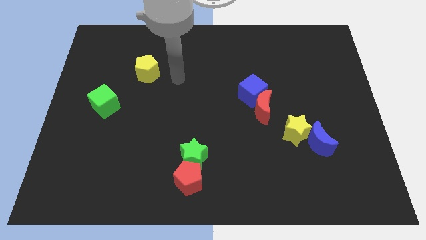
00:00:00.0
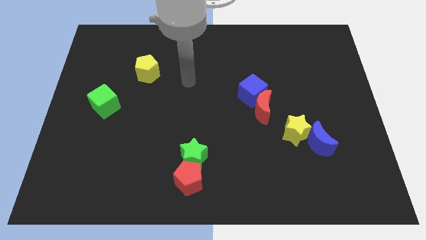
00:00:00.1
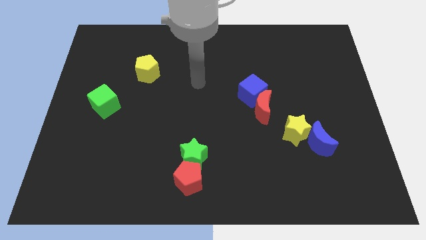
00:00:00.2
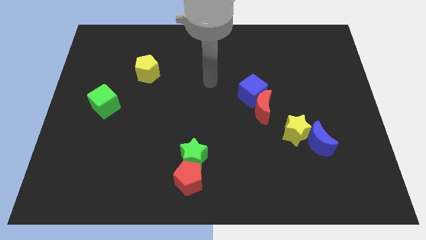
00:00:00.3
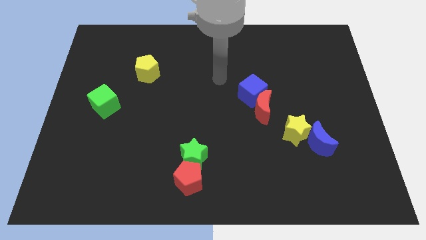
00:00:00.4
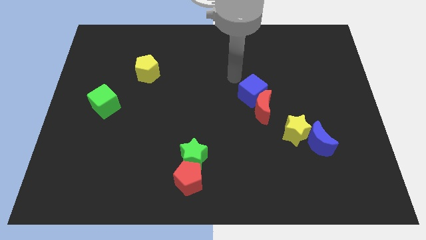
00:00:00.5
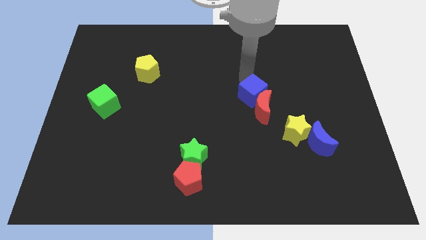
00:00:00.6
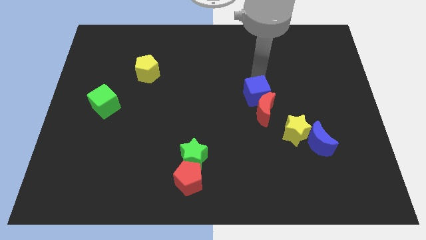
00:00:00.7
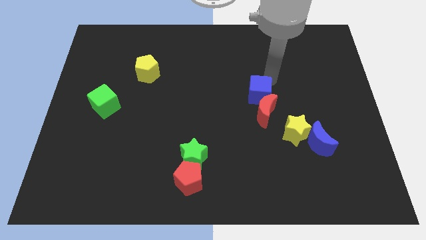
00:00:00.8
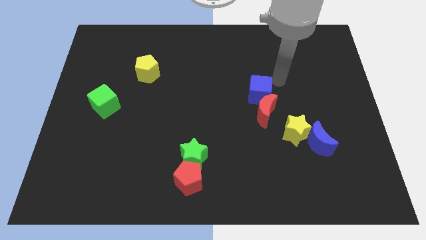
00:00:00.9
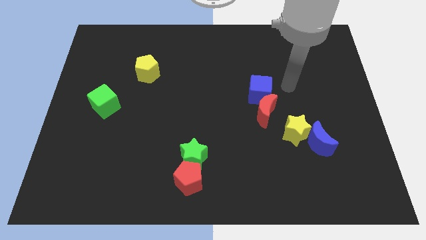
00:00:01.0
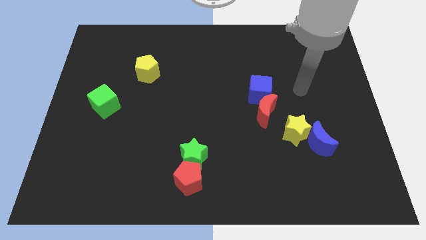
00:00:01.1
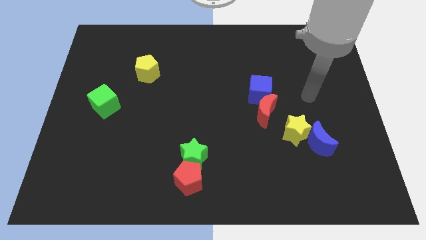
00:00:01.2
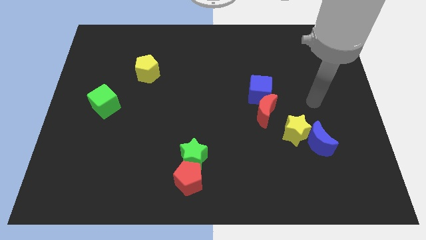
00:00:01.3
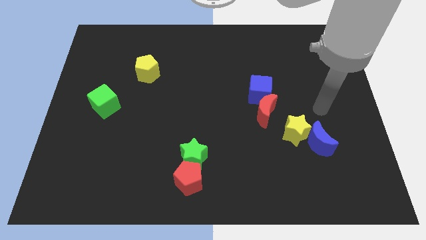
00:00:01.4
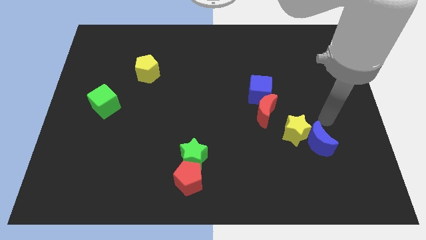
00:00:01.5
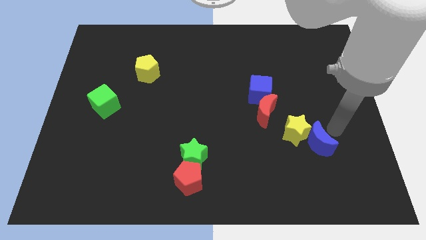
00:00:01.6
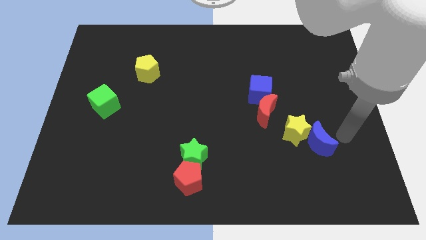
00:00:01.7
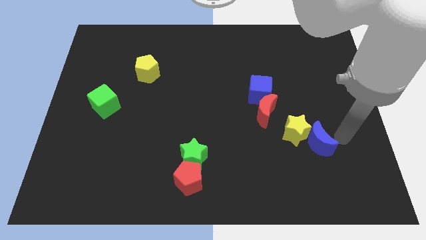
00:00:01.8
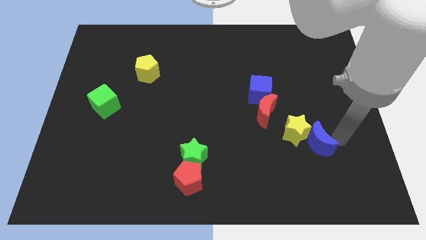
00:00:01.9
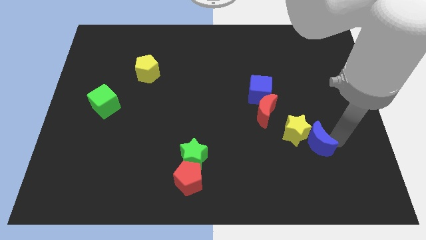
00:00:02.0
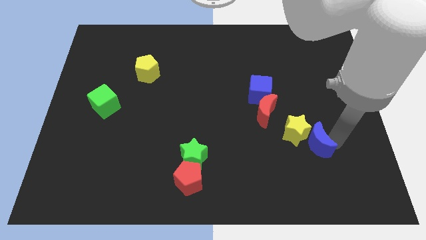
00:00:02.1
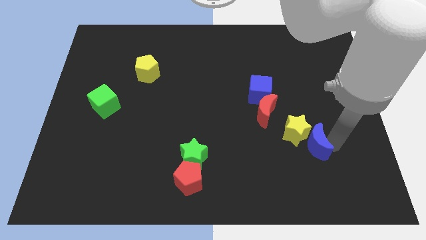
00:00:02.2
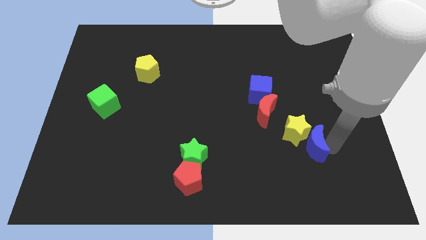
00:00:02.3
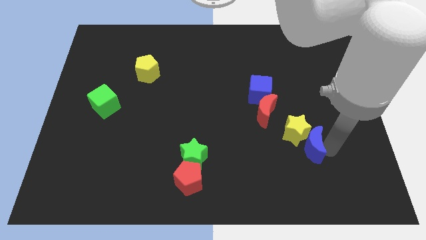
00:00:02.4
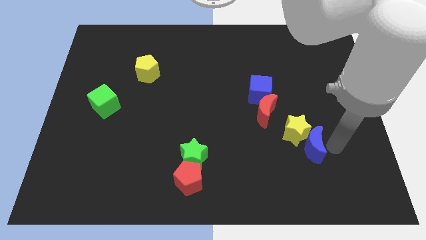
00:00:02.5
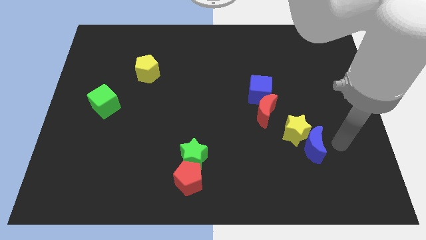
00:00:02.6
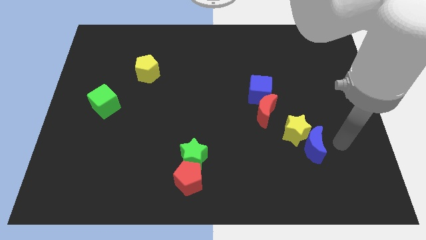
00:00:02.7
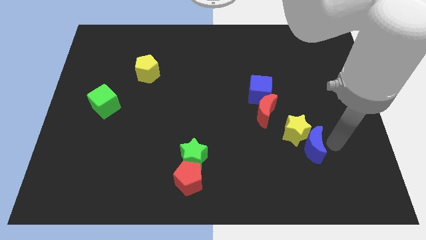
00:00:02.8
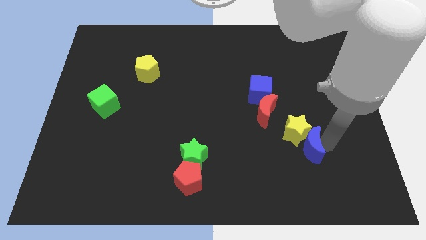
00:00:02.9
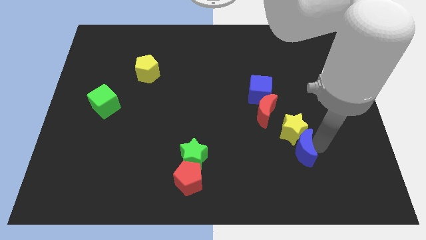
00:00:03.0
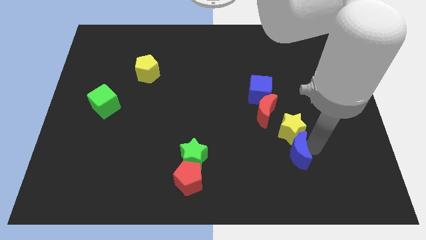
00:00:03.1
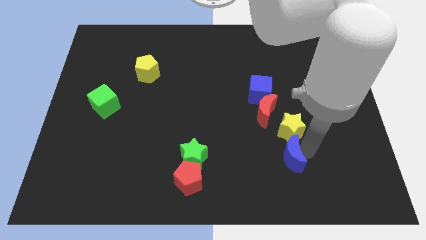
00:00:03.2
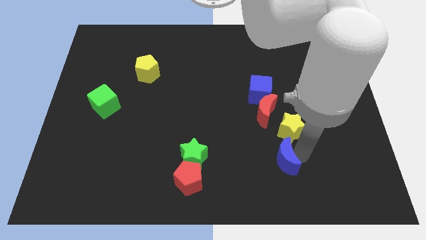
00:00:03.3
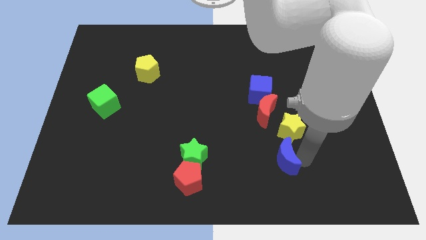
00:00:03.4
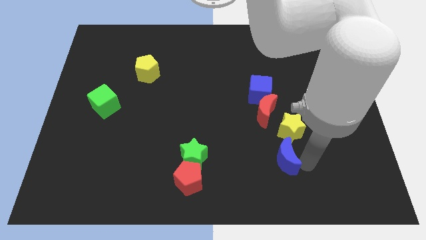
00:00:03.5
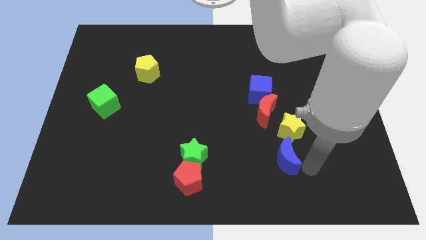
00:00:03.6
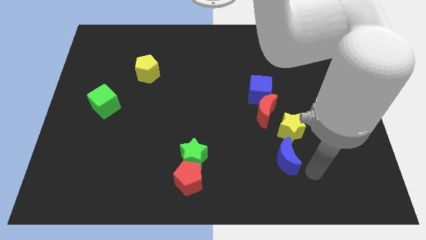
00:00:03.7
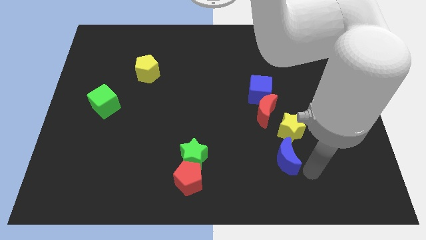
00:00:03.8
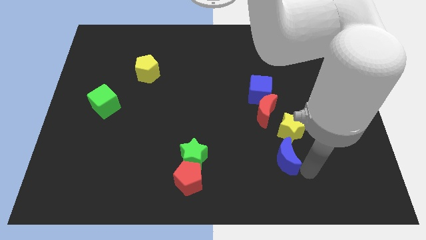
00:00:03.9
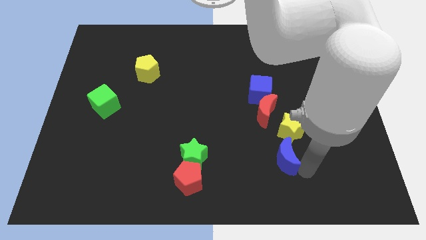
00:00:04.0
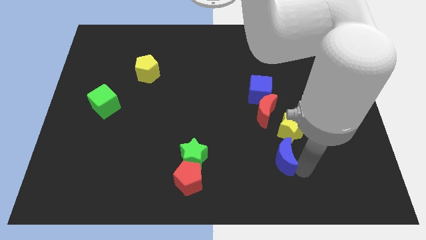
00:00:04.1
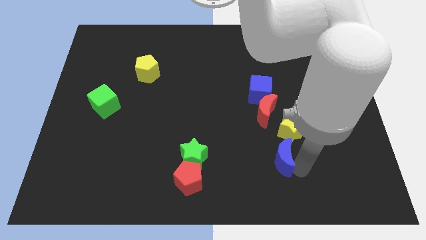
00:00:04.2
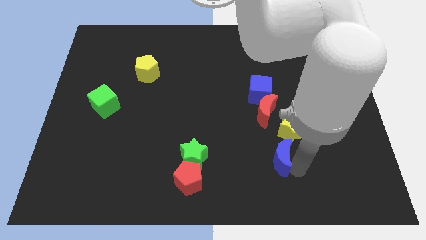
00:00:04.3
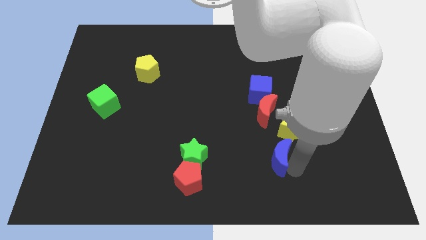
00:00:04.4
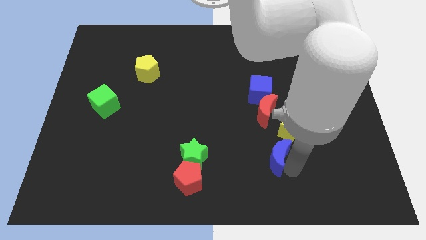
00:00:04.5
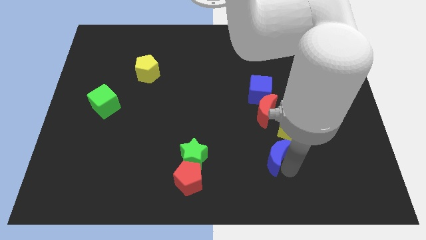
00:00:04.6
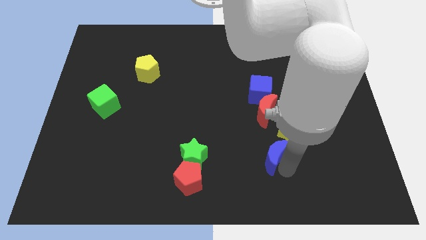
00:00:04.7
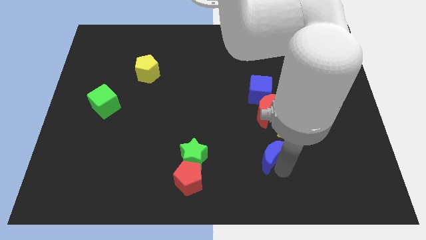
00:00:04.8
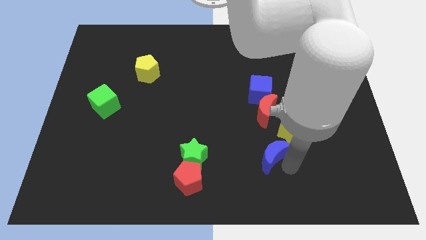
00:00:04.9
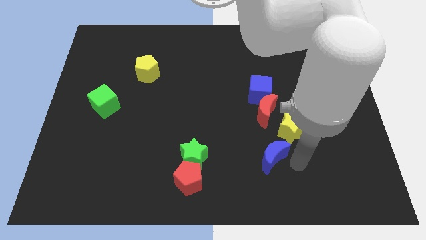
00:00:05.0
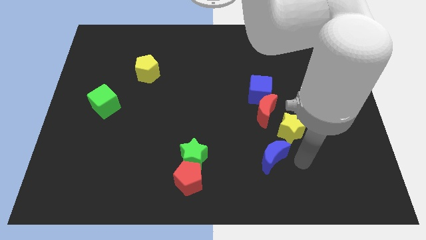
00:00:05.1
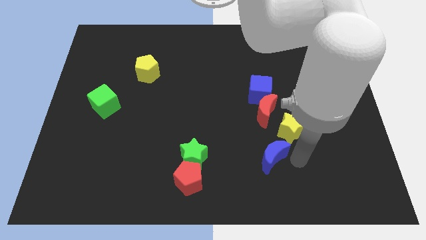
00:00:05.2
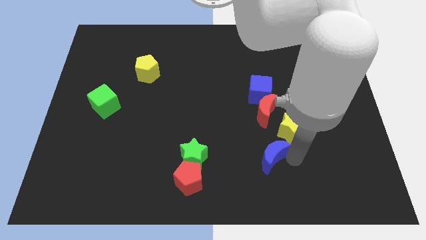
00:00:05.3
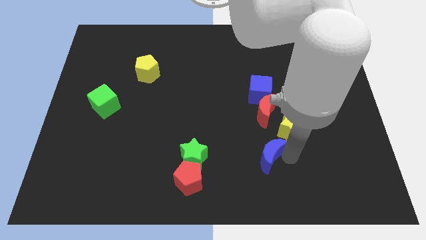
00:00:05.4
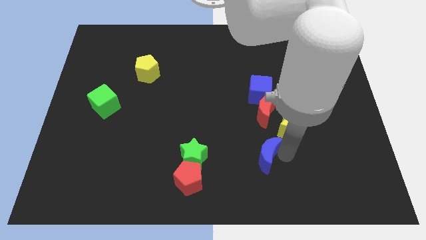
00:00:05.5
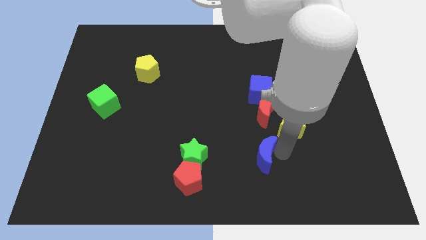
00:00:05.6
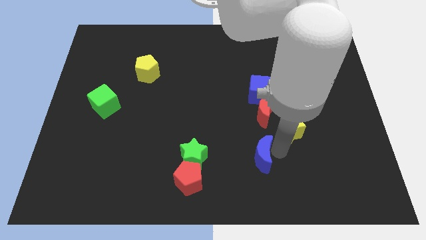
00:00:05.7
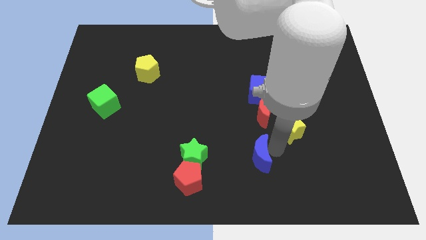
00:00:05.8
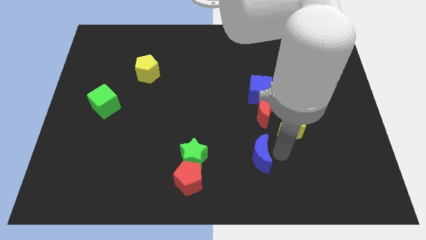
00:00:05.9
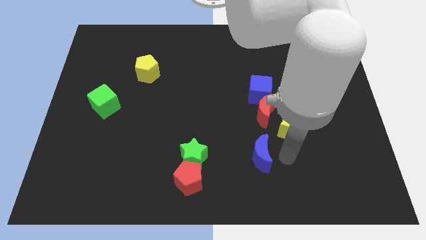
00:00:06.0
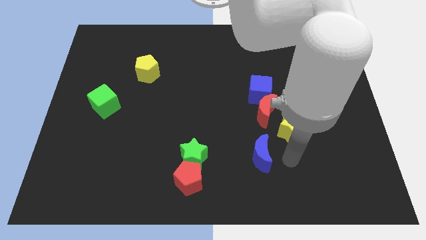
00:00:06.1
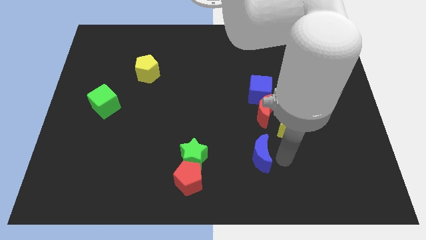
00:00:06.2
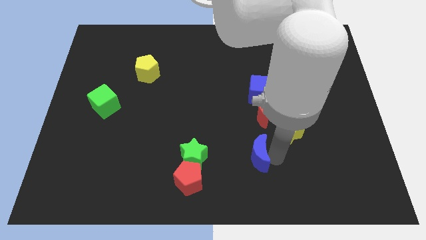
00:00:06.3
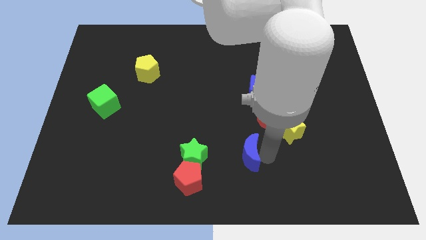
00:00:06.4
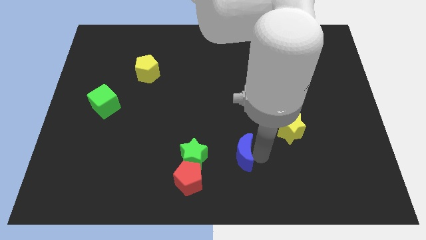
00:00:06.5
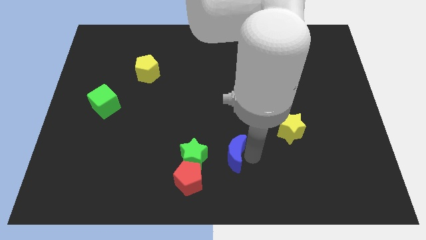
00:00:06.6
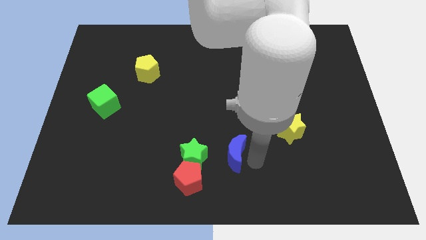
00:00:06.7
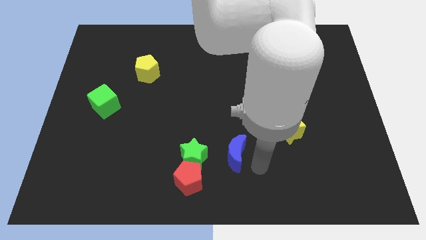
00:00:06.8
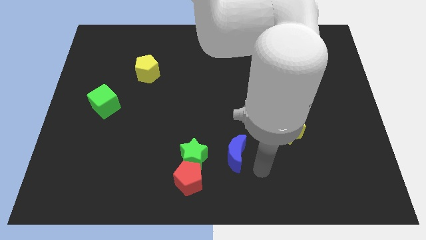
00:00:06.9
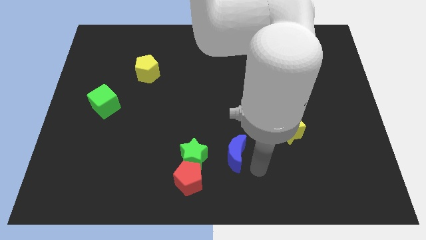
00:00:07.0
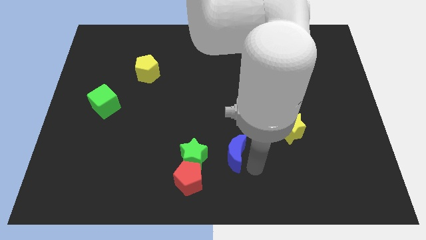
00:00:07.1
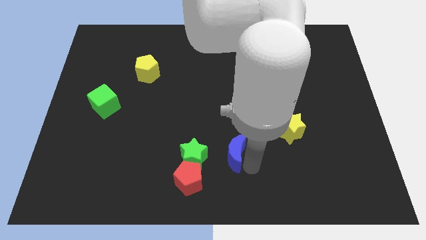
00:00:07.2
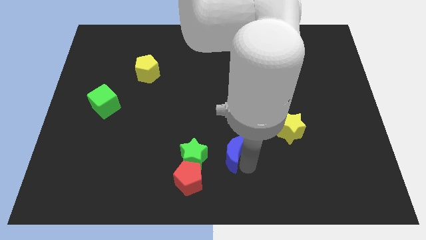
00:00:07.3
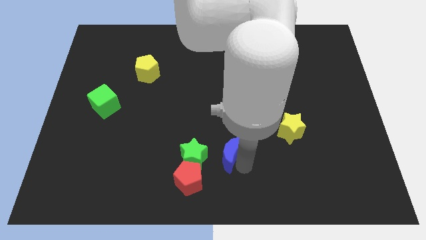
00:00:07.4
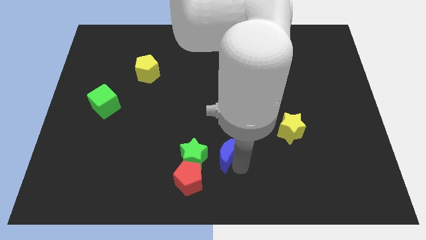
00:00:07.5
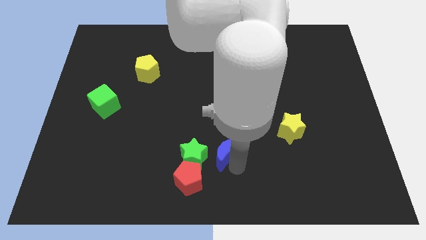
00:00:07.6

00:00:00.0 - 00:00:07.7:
move the blue moon to the left

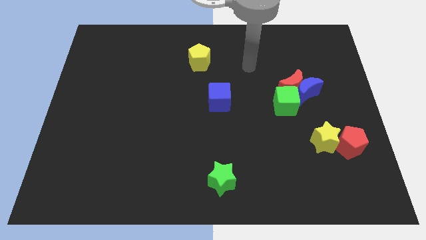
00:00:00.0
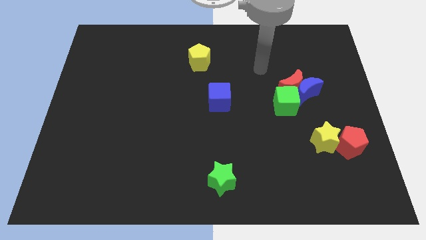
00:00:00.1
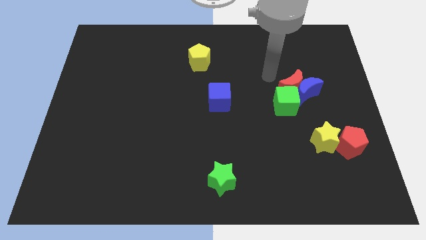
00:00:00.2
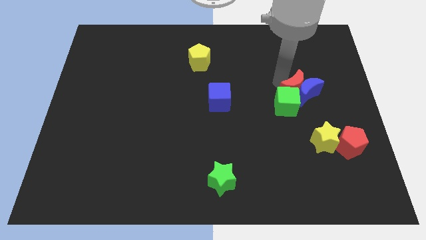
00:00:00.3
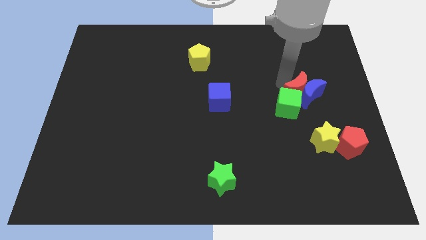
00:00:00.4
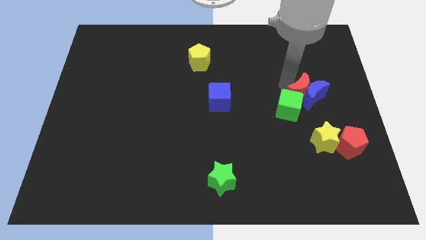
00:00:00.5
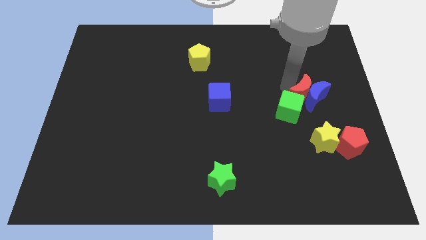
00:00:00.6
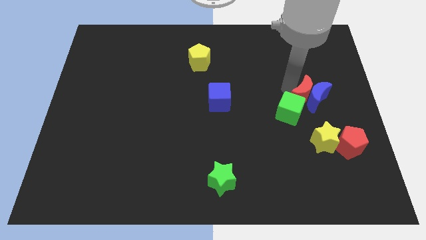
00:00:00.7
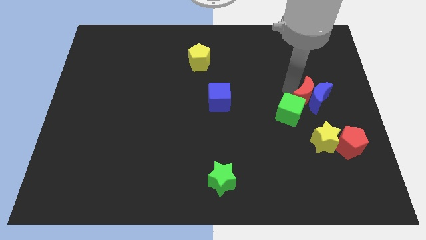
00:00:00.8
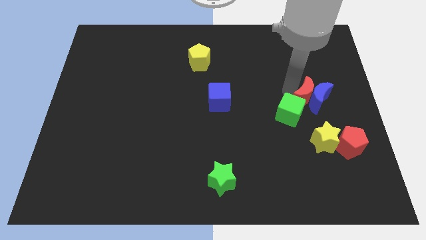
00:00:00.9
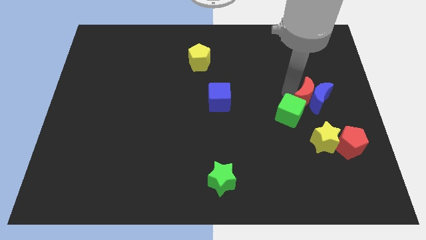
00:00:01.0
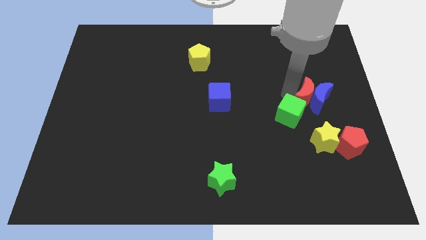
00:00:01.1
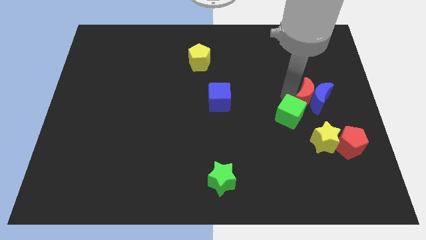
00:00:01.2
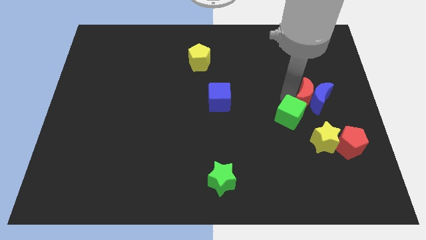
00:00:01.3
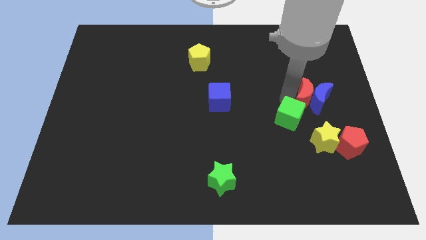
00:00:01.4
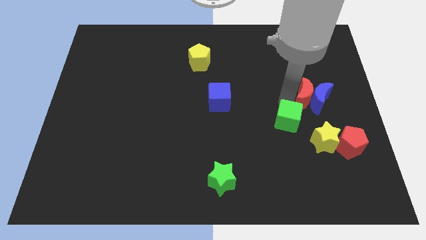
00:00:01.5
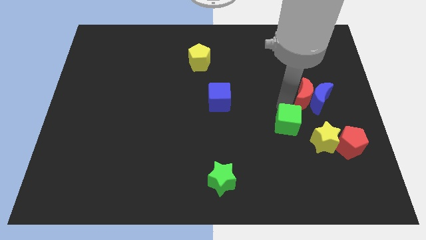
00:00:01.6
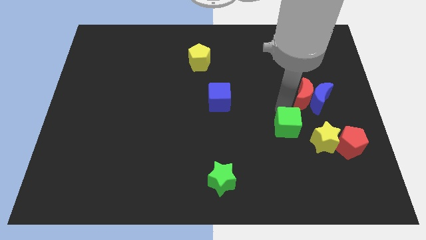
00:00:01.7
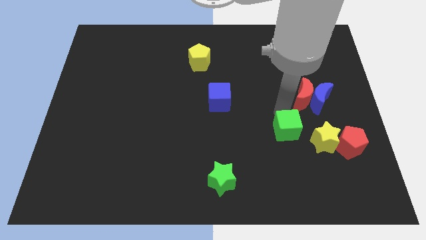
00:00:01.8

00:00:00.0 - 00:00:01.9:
slide the green cube downwards slightly
